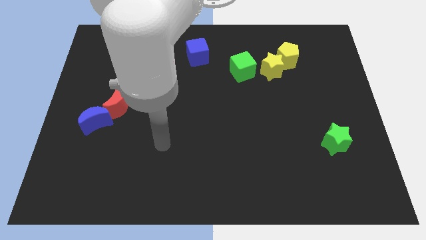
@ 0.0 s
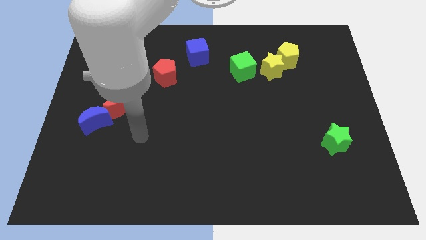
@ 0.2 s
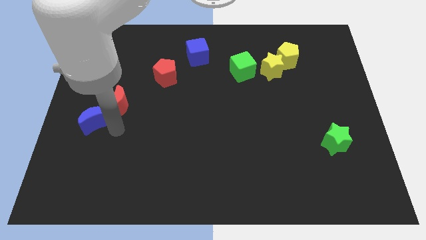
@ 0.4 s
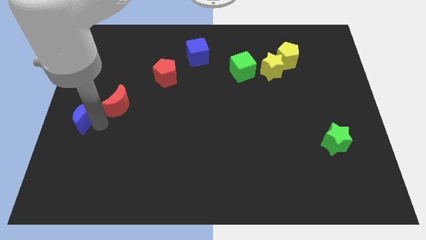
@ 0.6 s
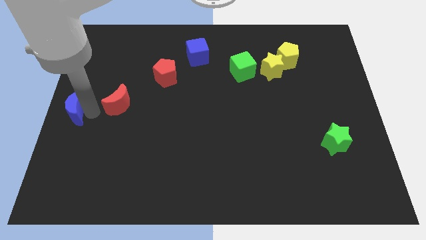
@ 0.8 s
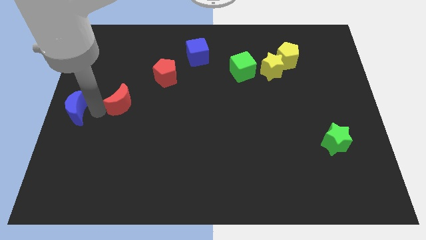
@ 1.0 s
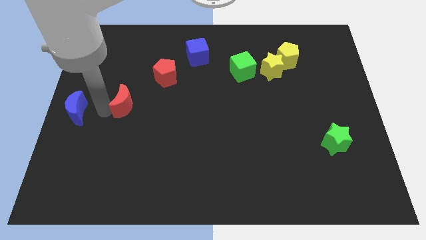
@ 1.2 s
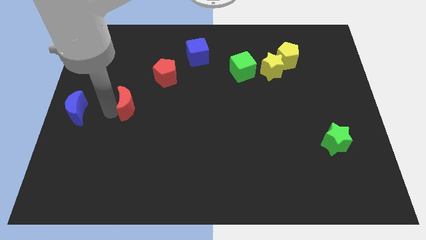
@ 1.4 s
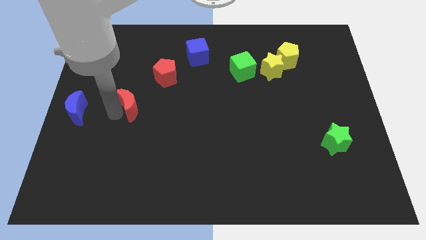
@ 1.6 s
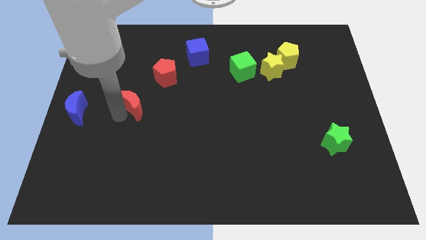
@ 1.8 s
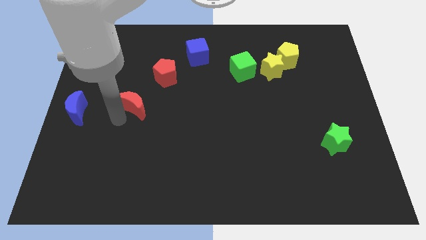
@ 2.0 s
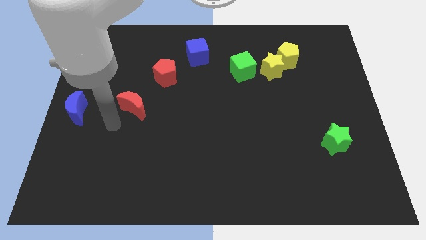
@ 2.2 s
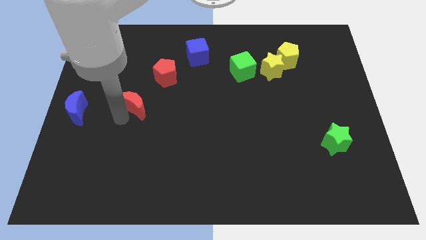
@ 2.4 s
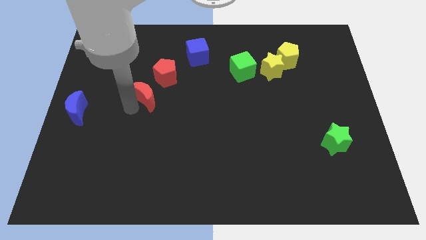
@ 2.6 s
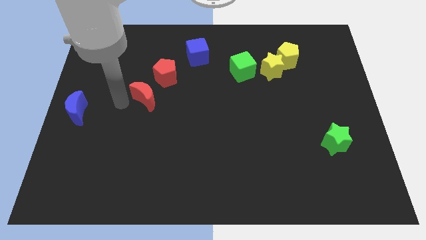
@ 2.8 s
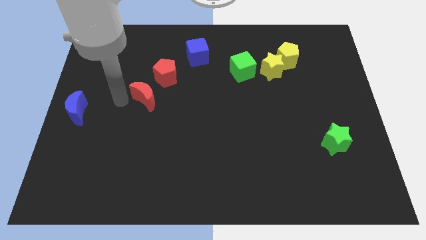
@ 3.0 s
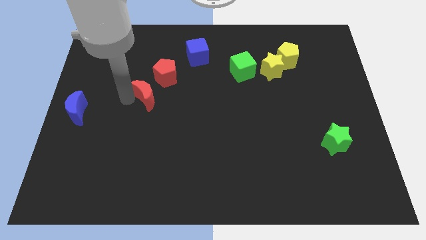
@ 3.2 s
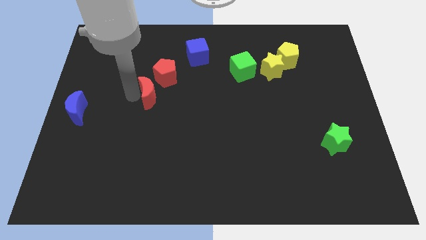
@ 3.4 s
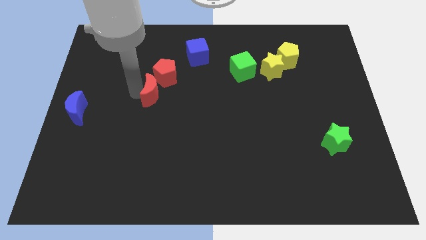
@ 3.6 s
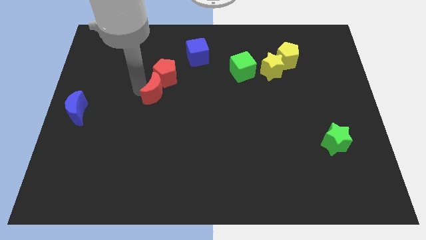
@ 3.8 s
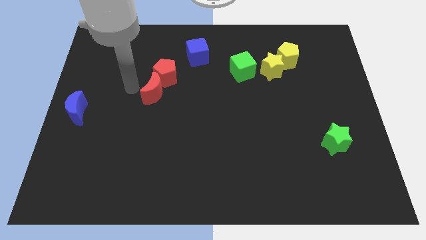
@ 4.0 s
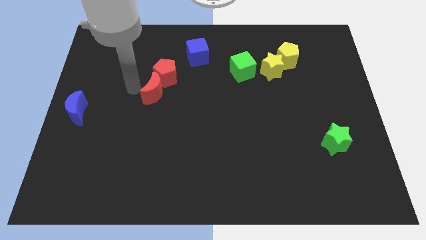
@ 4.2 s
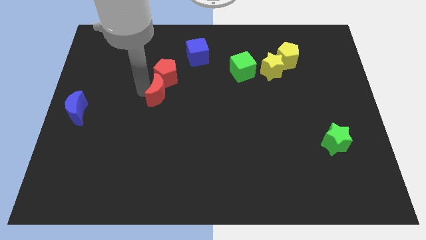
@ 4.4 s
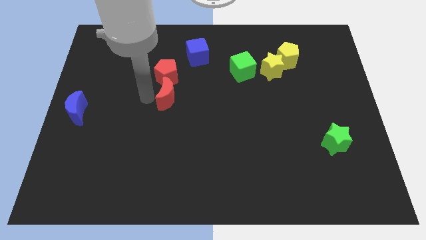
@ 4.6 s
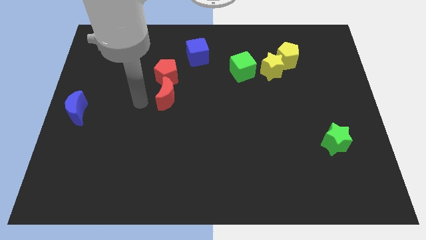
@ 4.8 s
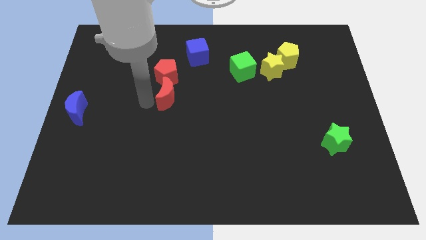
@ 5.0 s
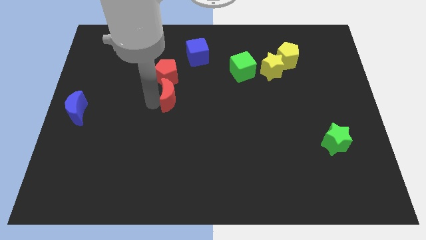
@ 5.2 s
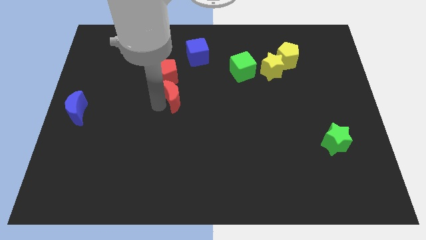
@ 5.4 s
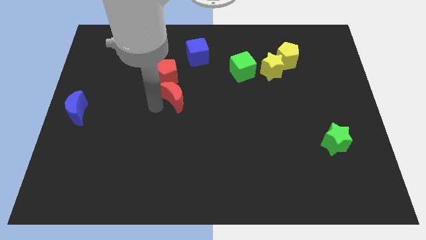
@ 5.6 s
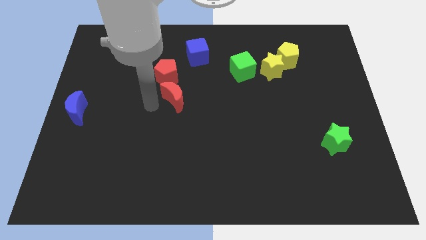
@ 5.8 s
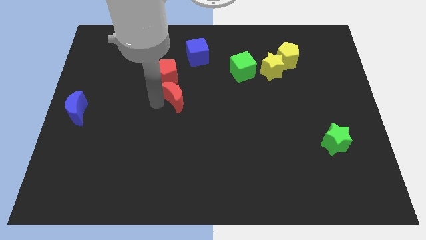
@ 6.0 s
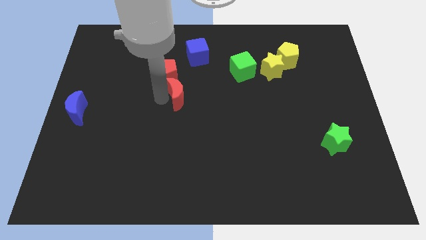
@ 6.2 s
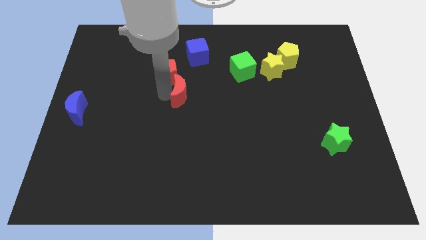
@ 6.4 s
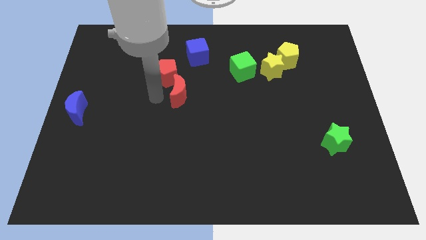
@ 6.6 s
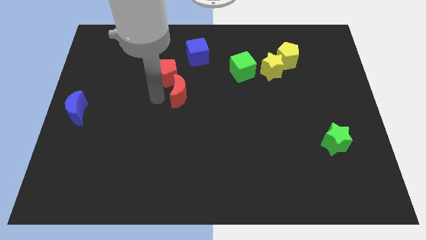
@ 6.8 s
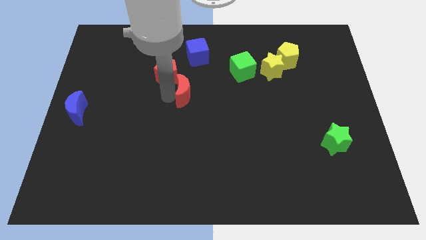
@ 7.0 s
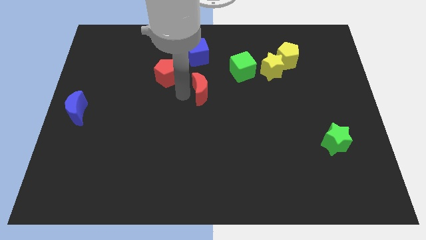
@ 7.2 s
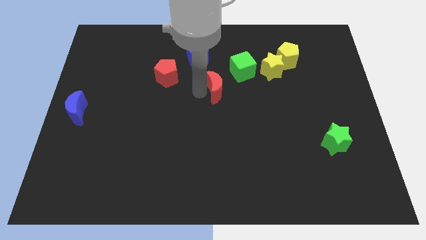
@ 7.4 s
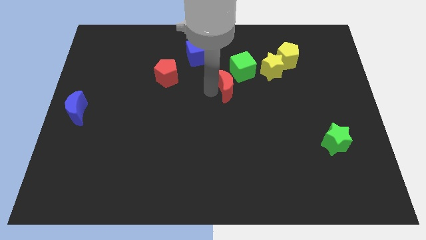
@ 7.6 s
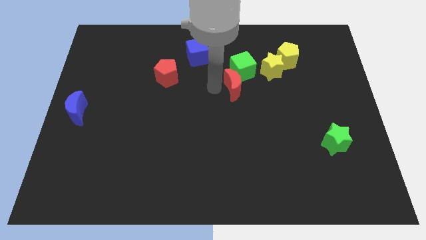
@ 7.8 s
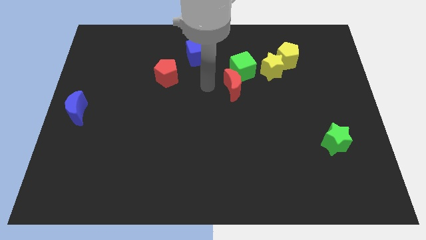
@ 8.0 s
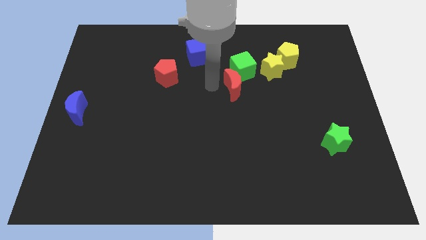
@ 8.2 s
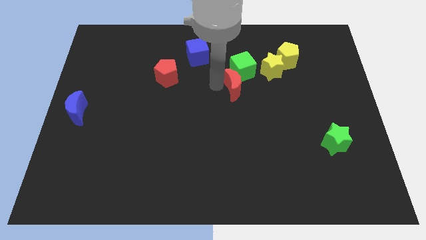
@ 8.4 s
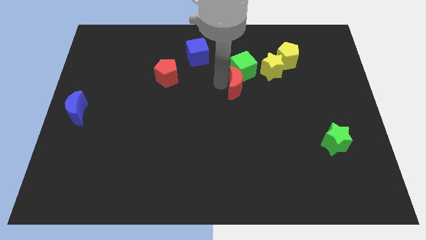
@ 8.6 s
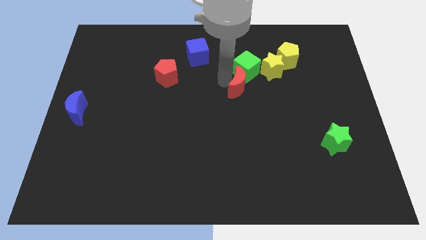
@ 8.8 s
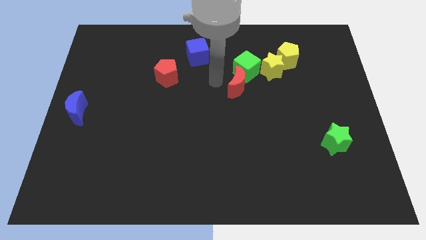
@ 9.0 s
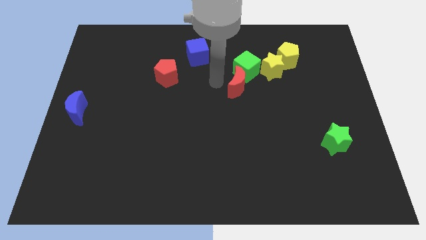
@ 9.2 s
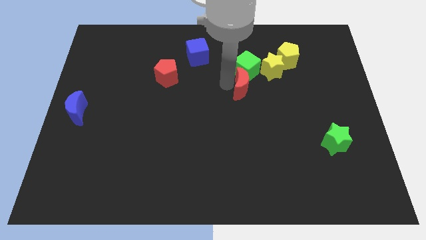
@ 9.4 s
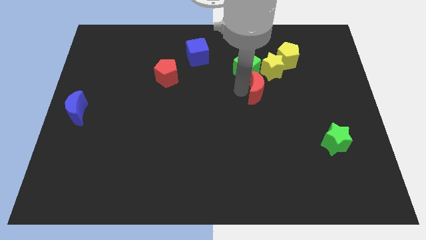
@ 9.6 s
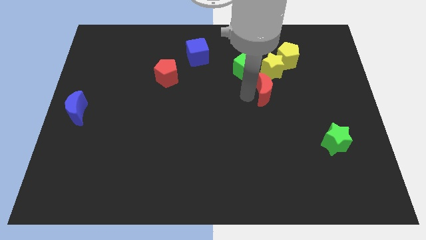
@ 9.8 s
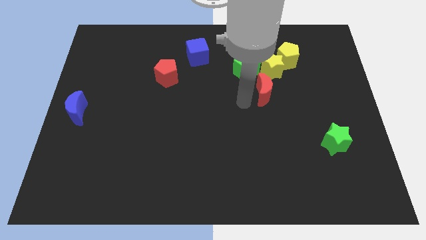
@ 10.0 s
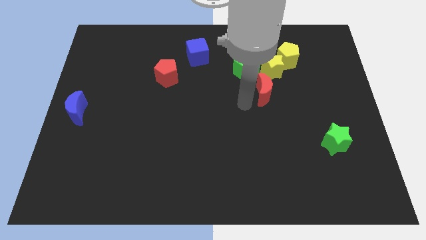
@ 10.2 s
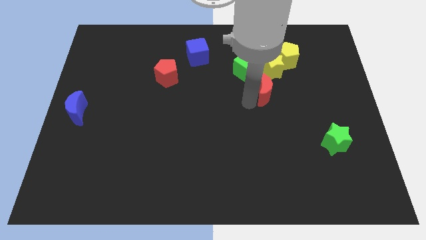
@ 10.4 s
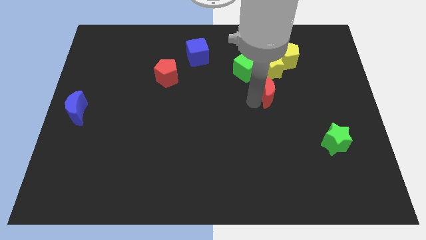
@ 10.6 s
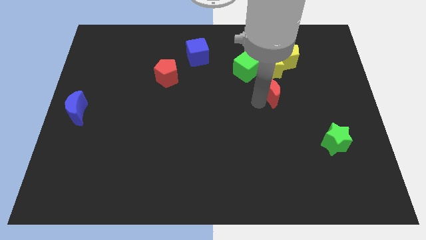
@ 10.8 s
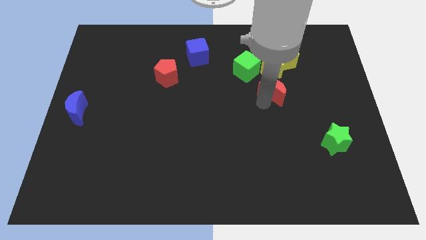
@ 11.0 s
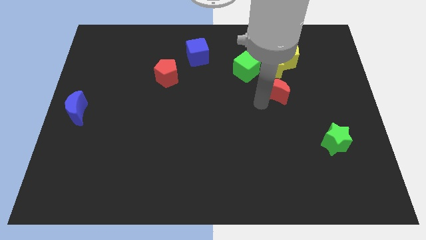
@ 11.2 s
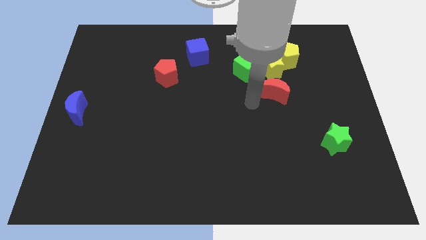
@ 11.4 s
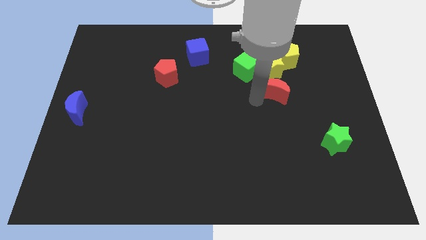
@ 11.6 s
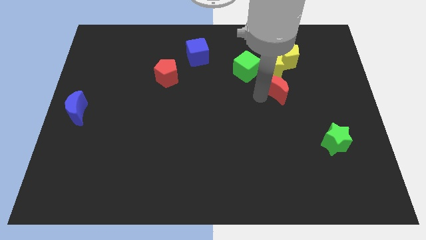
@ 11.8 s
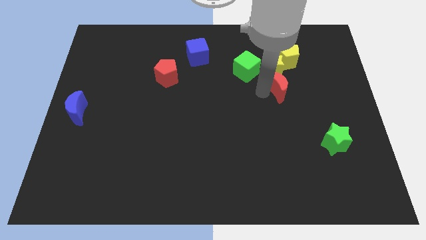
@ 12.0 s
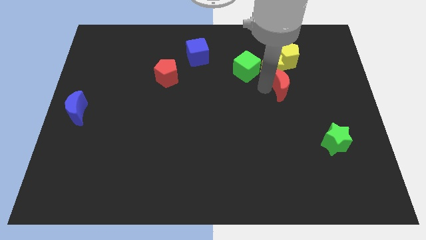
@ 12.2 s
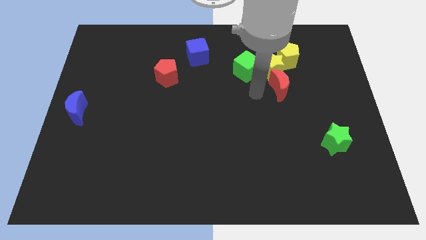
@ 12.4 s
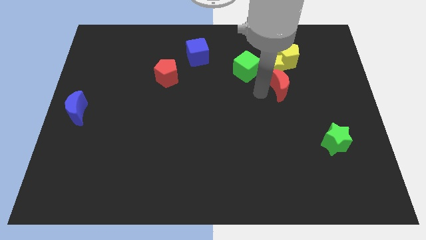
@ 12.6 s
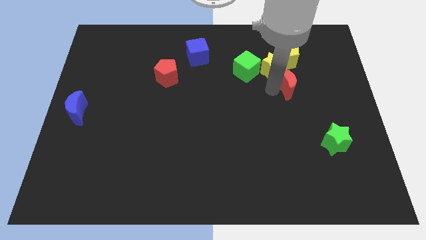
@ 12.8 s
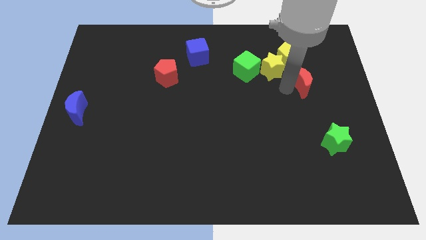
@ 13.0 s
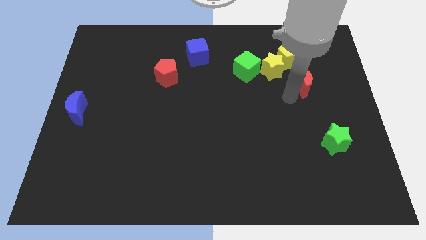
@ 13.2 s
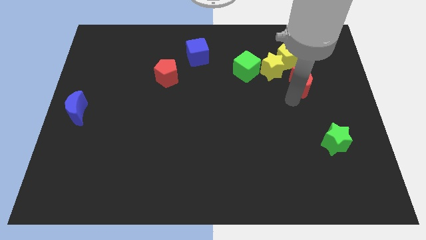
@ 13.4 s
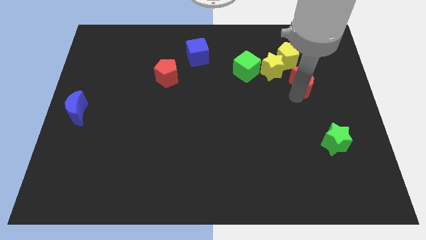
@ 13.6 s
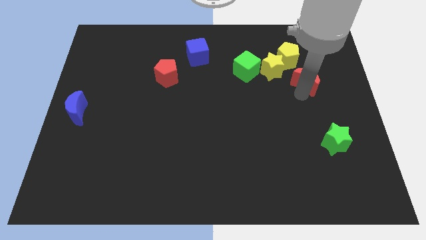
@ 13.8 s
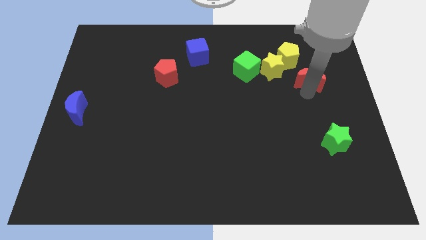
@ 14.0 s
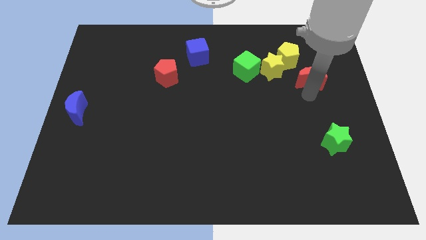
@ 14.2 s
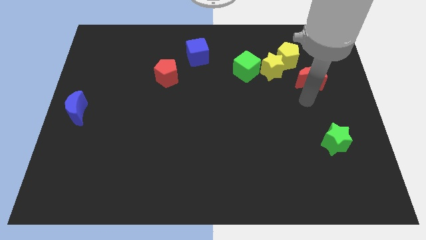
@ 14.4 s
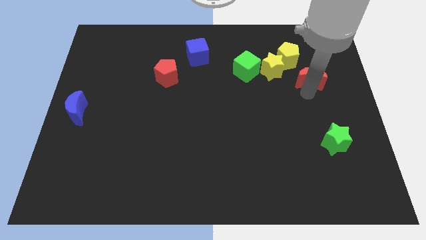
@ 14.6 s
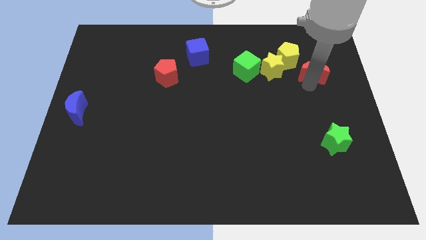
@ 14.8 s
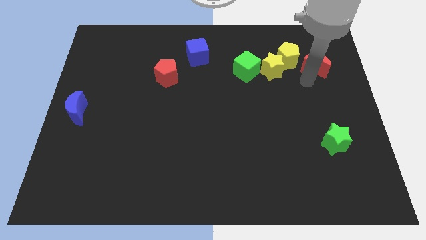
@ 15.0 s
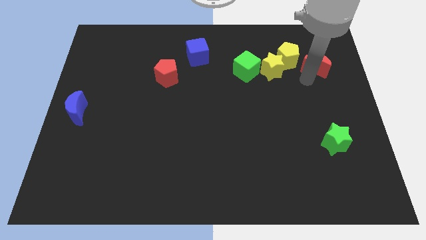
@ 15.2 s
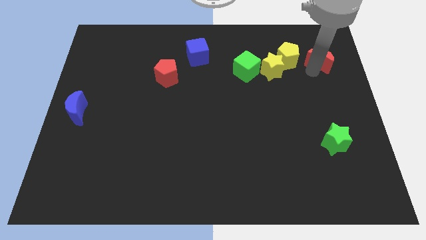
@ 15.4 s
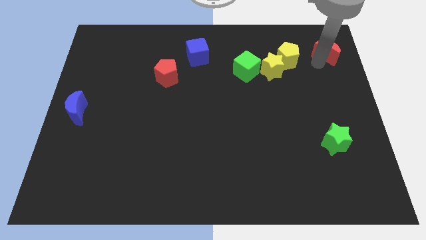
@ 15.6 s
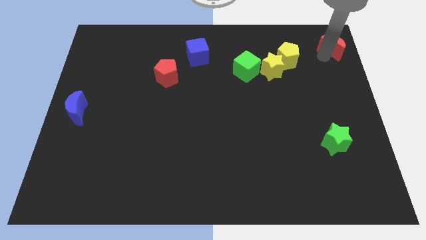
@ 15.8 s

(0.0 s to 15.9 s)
put the red moon to the top right
